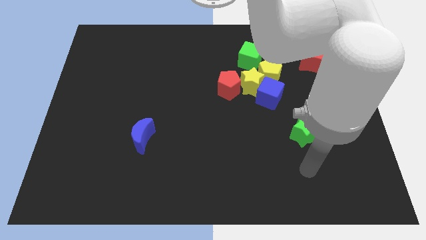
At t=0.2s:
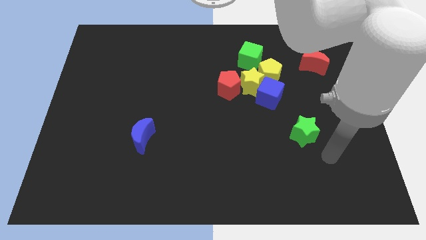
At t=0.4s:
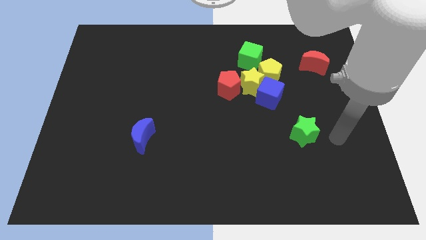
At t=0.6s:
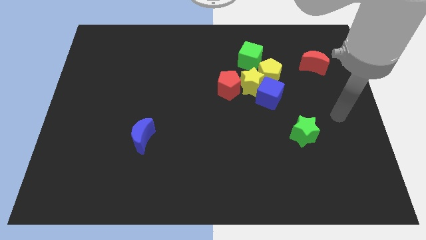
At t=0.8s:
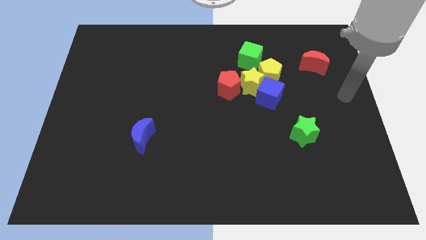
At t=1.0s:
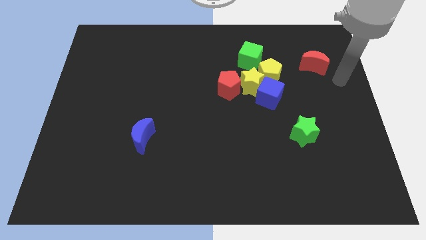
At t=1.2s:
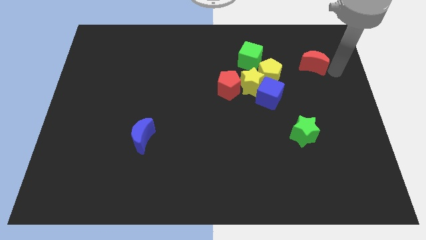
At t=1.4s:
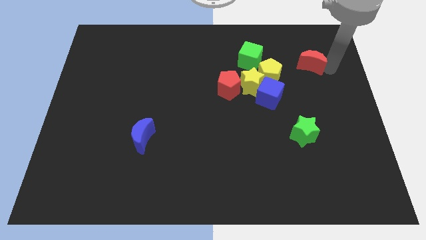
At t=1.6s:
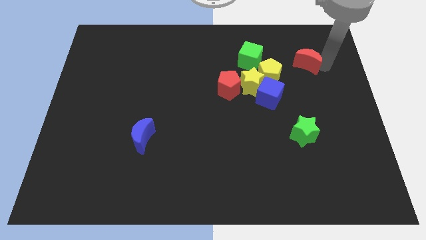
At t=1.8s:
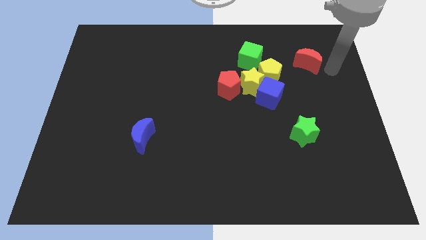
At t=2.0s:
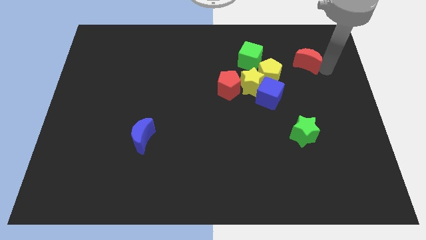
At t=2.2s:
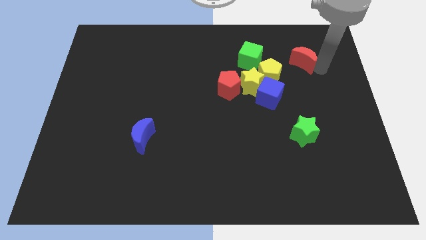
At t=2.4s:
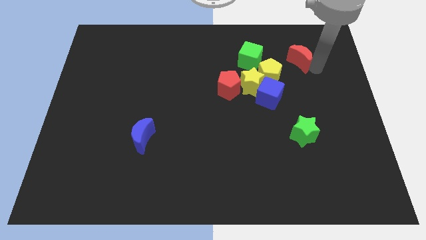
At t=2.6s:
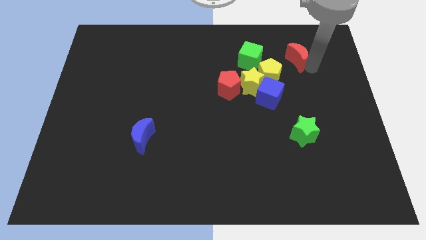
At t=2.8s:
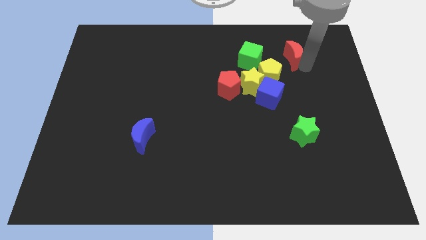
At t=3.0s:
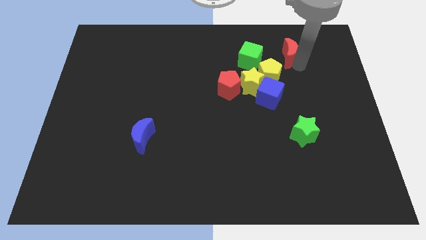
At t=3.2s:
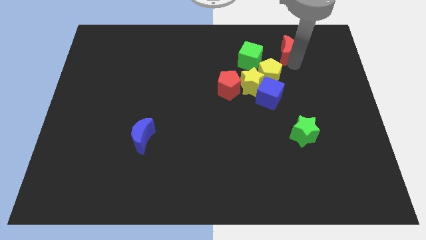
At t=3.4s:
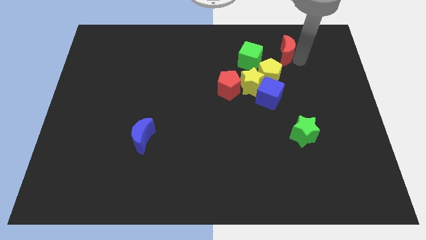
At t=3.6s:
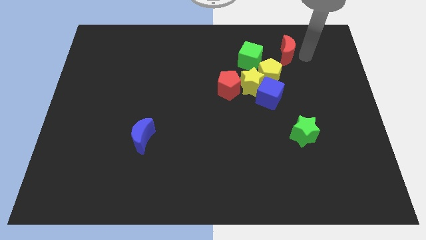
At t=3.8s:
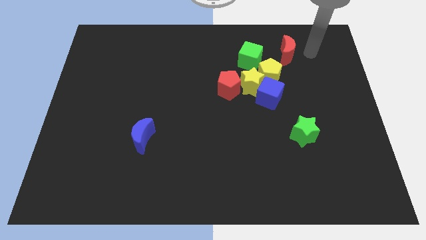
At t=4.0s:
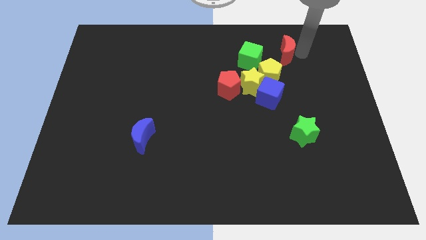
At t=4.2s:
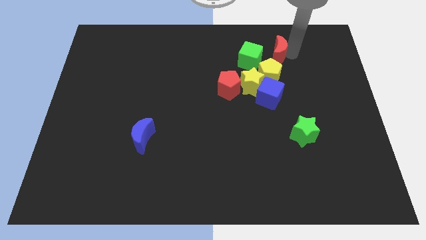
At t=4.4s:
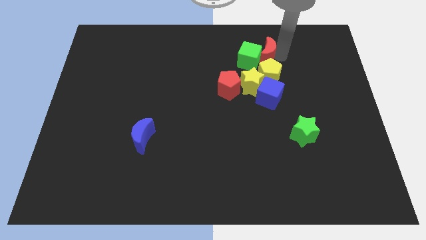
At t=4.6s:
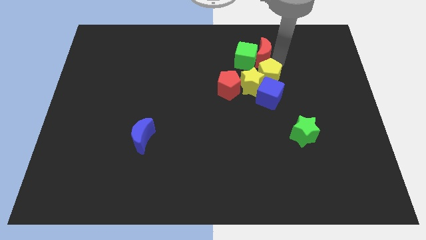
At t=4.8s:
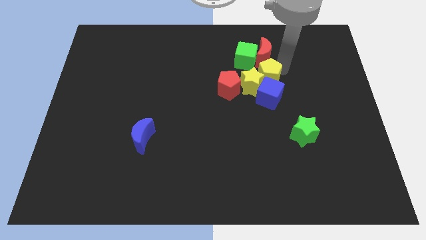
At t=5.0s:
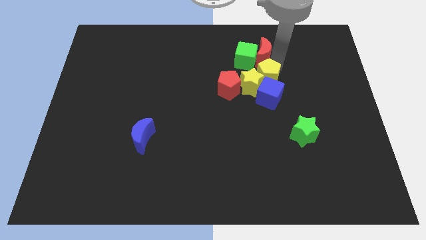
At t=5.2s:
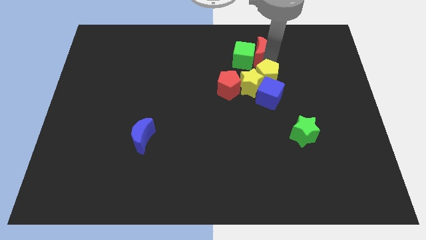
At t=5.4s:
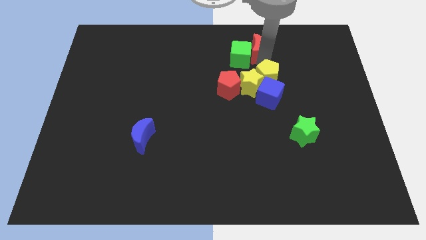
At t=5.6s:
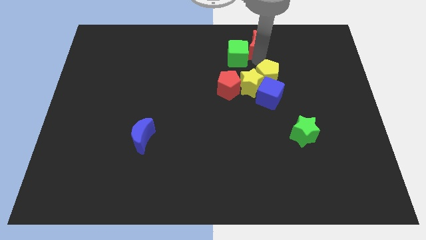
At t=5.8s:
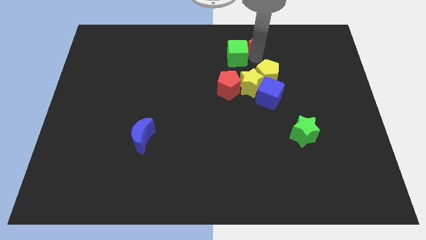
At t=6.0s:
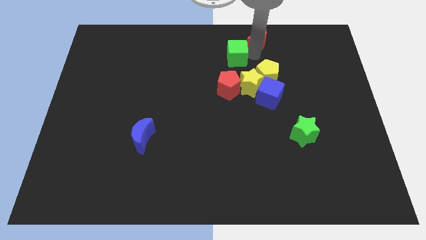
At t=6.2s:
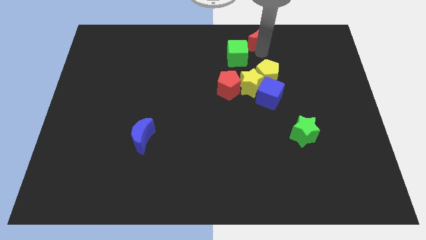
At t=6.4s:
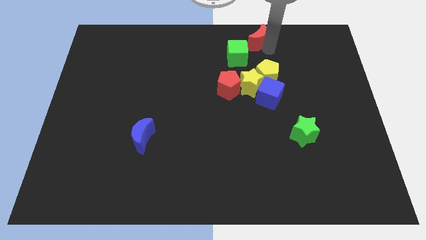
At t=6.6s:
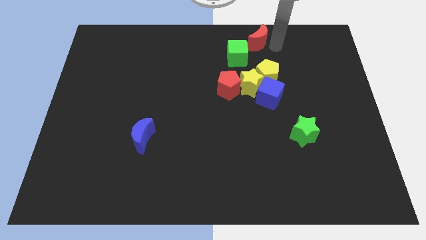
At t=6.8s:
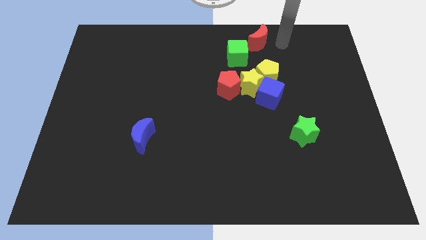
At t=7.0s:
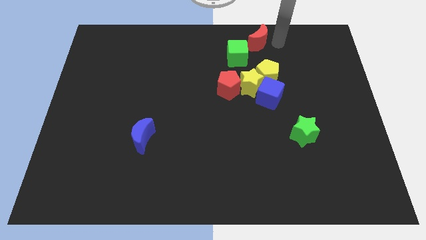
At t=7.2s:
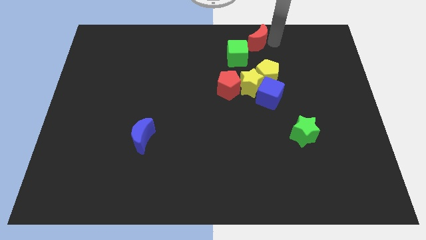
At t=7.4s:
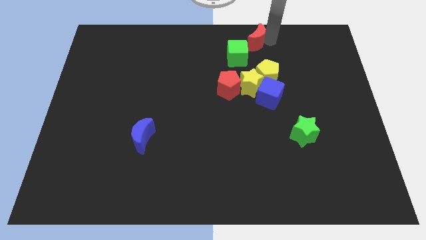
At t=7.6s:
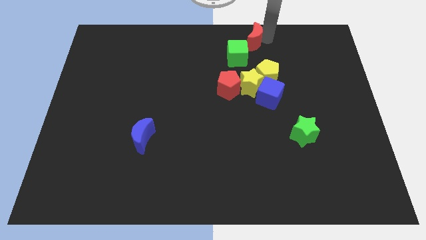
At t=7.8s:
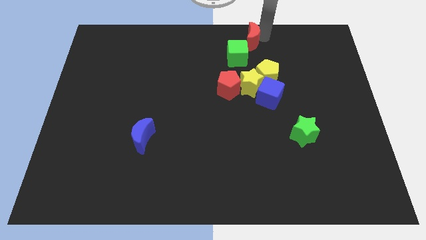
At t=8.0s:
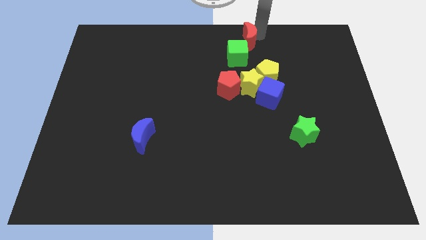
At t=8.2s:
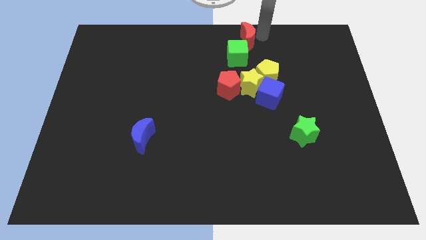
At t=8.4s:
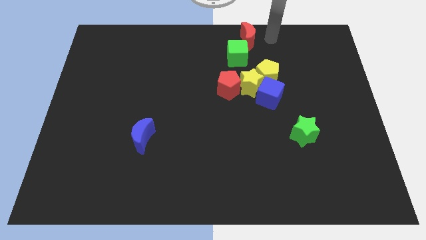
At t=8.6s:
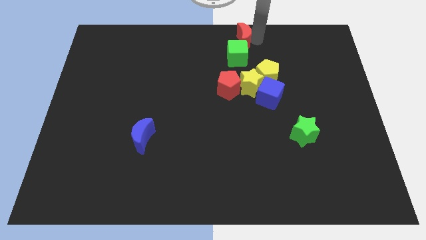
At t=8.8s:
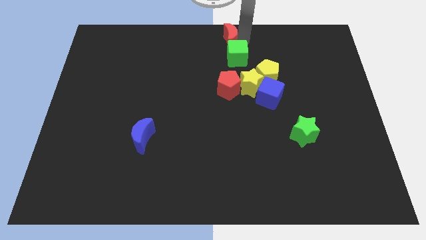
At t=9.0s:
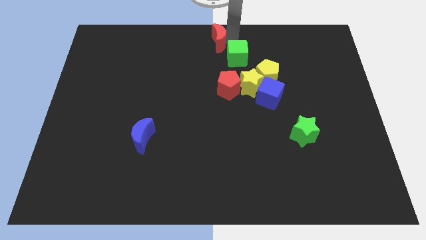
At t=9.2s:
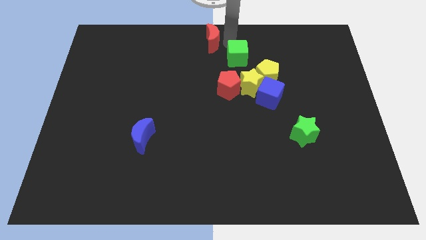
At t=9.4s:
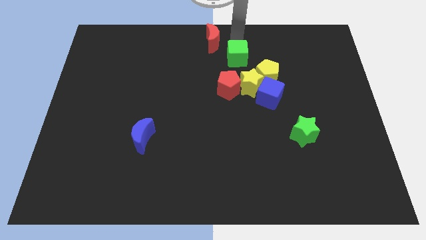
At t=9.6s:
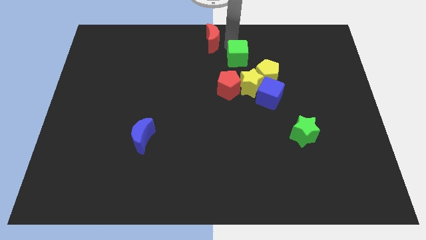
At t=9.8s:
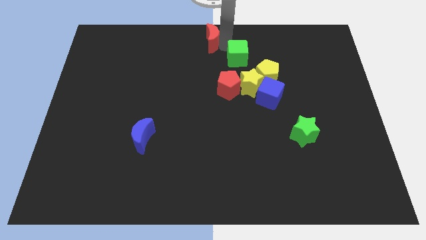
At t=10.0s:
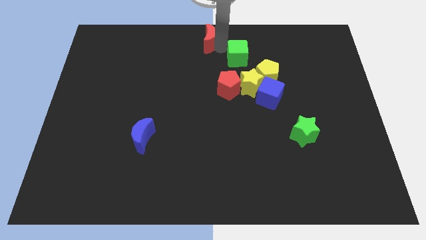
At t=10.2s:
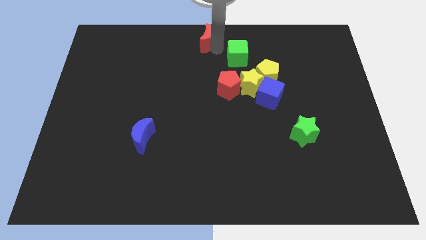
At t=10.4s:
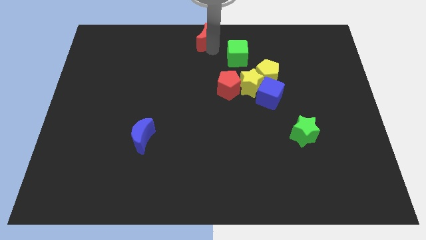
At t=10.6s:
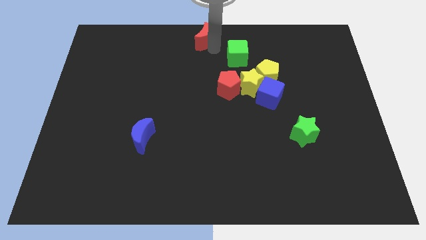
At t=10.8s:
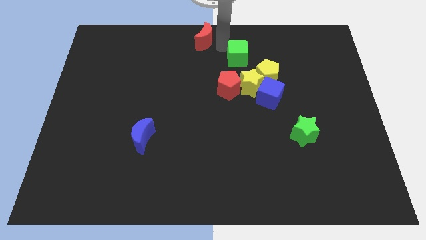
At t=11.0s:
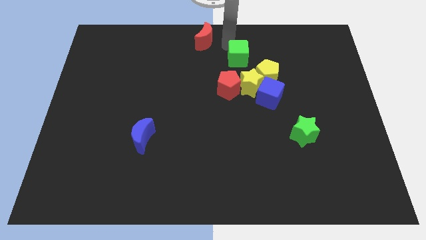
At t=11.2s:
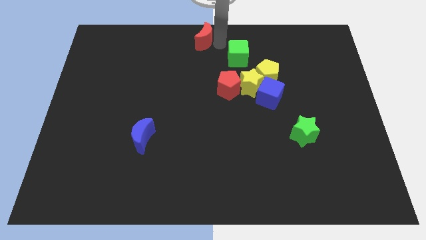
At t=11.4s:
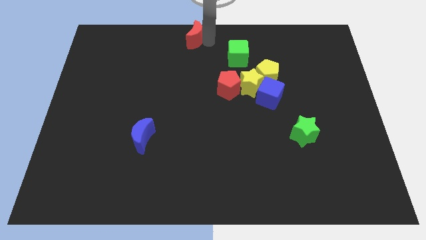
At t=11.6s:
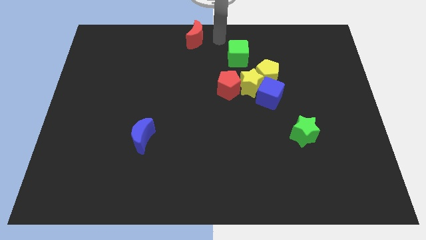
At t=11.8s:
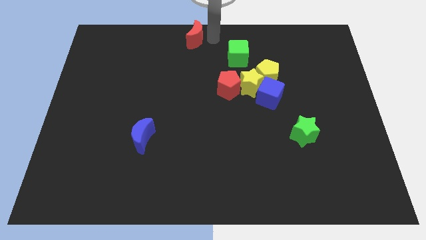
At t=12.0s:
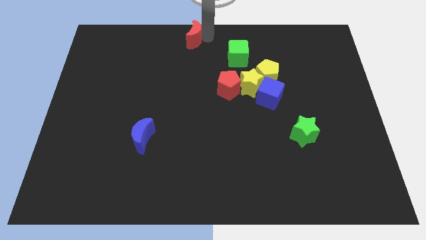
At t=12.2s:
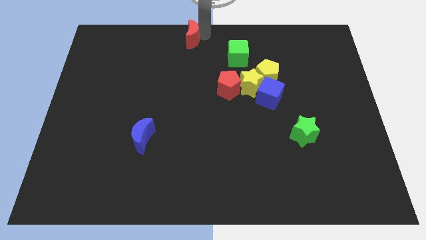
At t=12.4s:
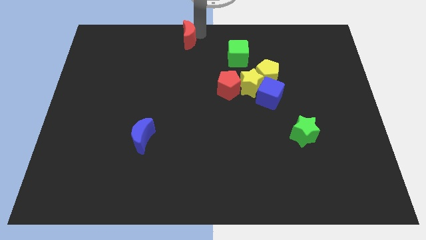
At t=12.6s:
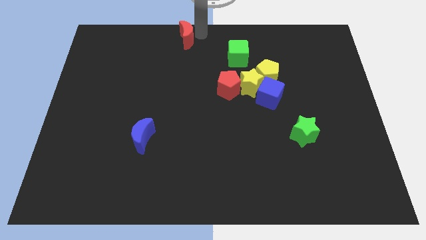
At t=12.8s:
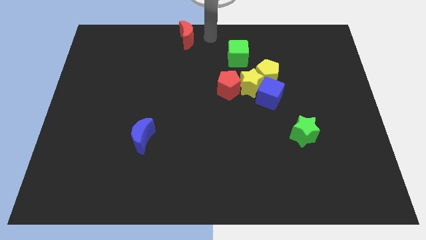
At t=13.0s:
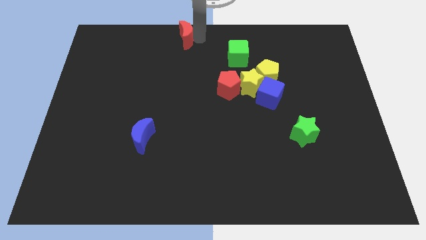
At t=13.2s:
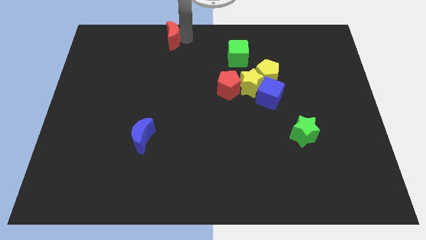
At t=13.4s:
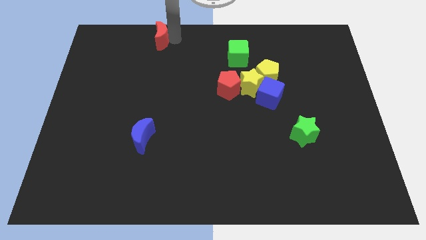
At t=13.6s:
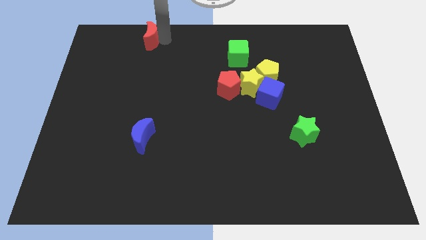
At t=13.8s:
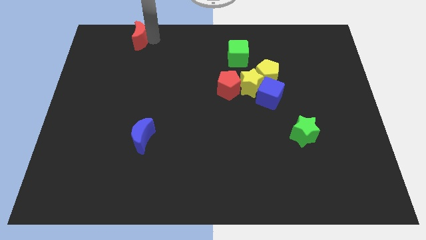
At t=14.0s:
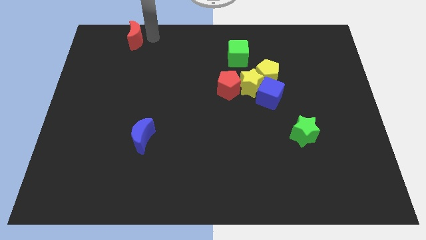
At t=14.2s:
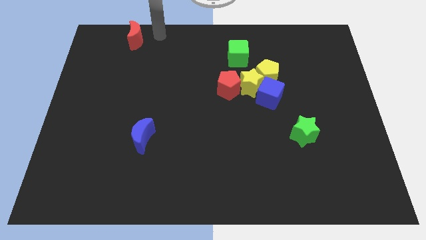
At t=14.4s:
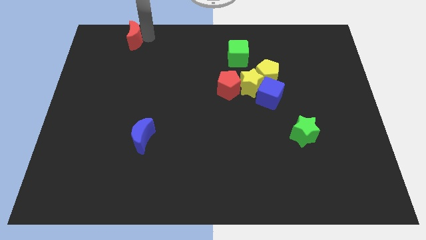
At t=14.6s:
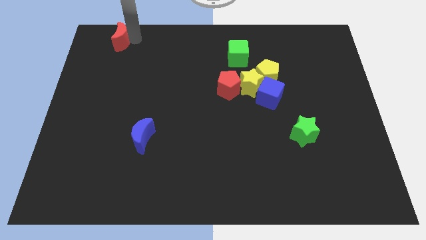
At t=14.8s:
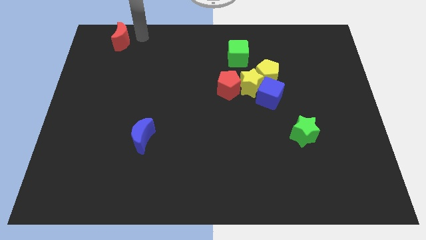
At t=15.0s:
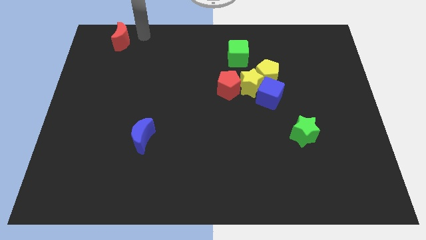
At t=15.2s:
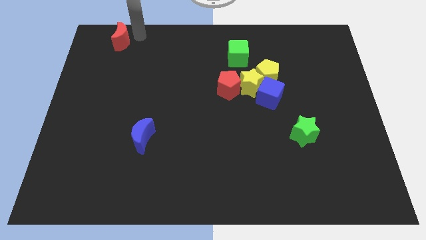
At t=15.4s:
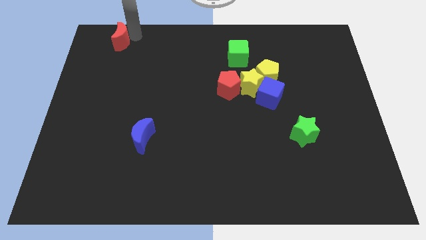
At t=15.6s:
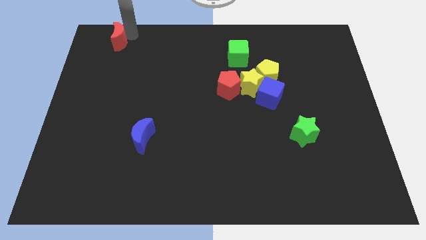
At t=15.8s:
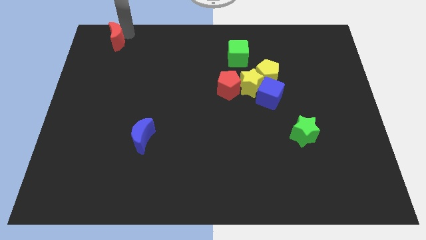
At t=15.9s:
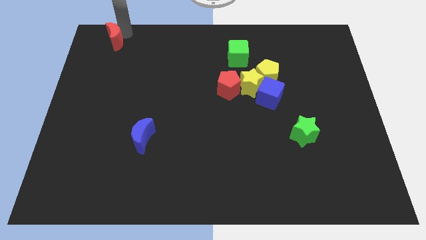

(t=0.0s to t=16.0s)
put the red moon to the upper left corner

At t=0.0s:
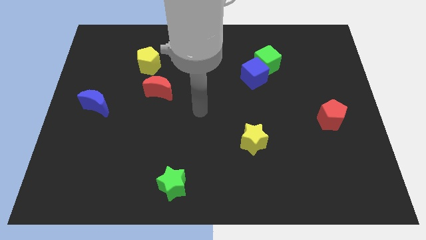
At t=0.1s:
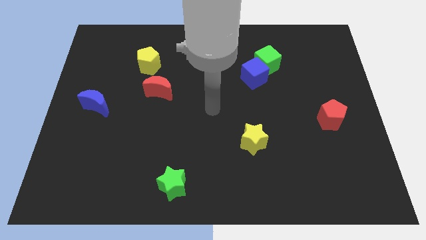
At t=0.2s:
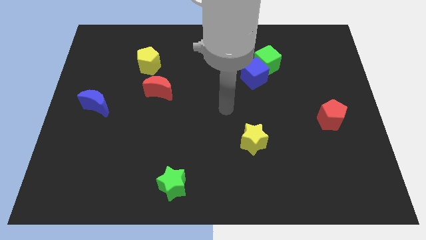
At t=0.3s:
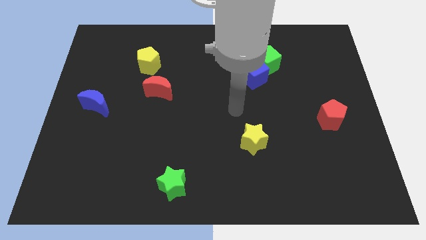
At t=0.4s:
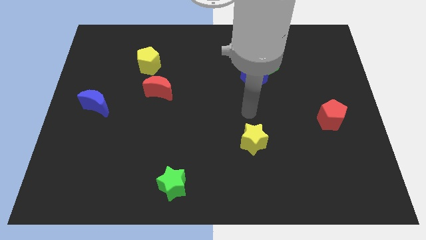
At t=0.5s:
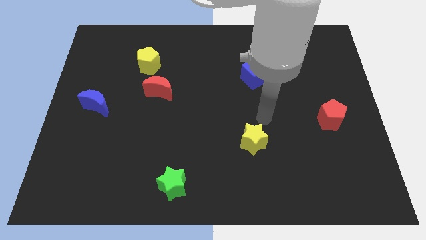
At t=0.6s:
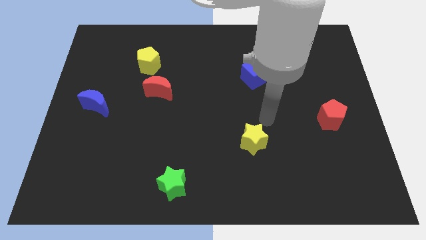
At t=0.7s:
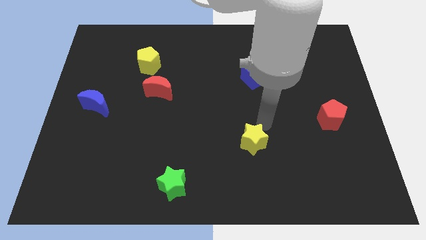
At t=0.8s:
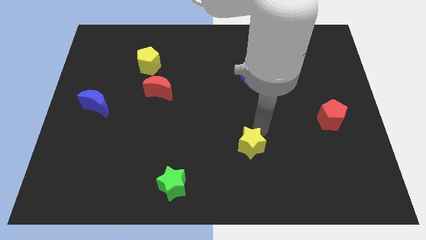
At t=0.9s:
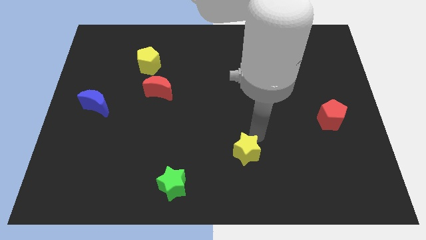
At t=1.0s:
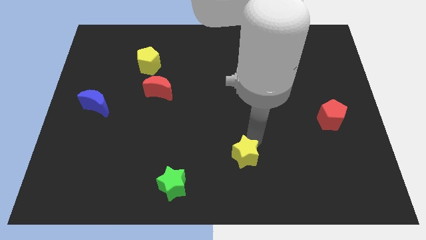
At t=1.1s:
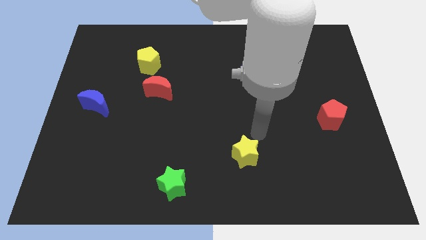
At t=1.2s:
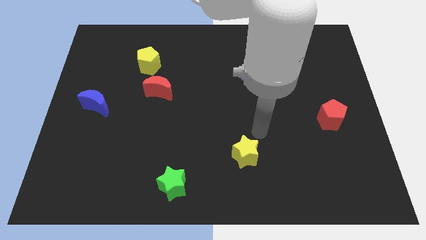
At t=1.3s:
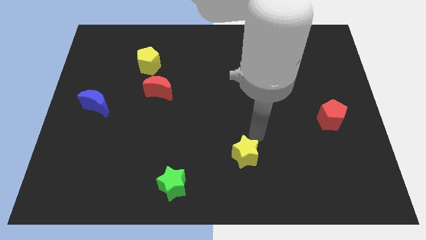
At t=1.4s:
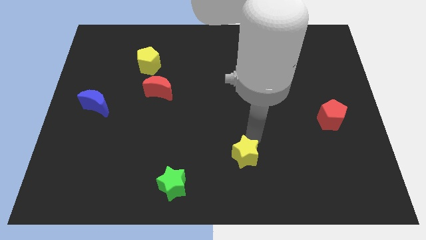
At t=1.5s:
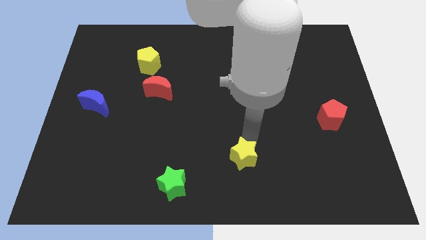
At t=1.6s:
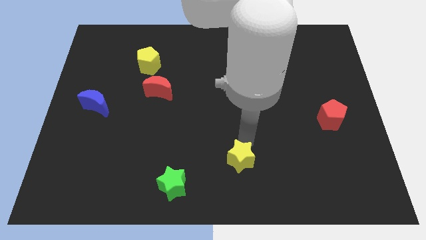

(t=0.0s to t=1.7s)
slide the yellow star to the bottom side
